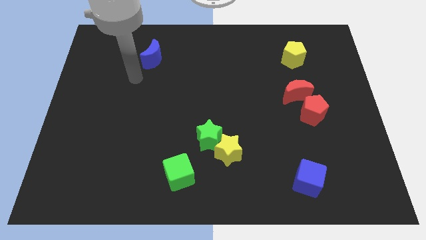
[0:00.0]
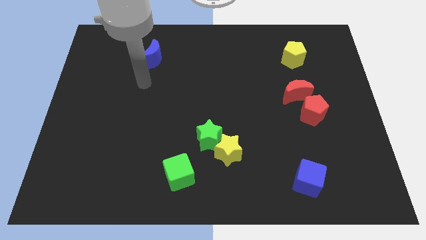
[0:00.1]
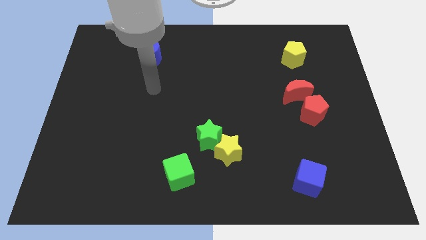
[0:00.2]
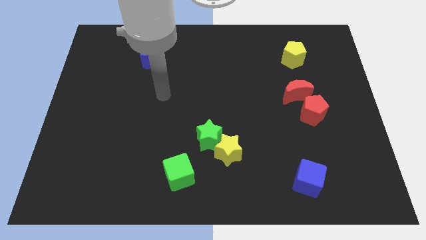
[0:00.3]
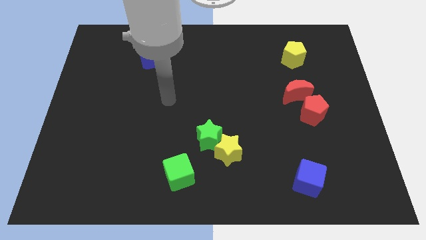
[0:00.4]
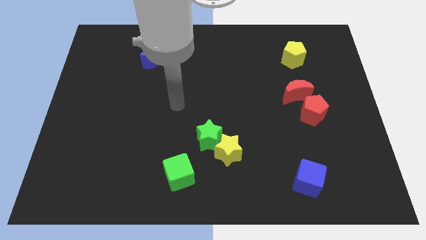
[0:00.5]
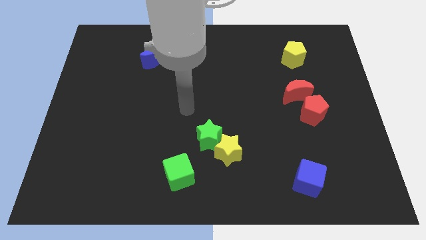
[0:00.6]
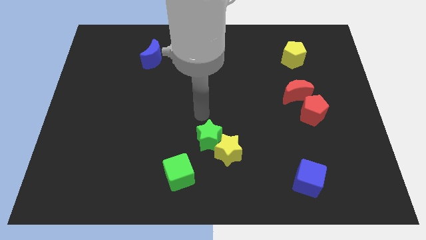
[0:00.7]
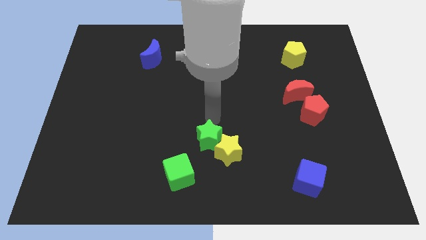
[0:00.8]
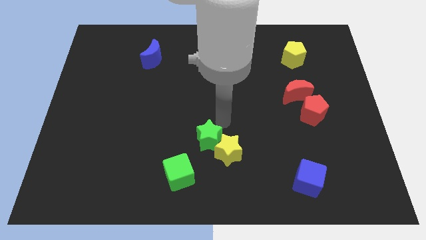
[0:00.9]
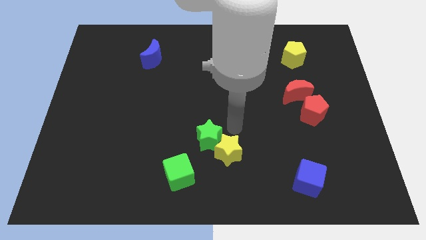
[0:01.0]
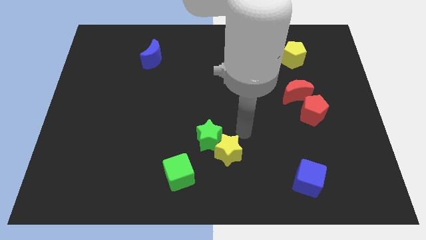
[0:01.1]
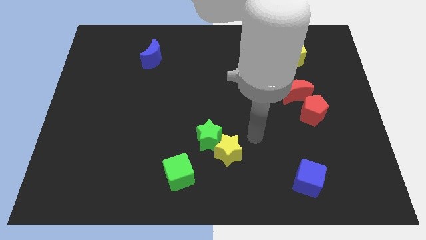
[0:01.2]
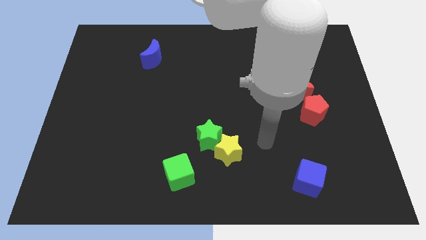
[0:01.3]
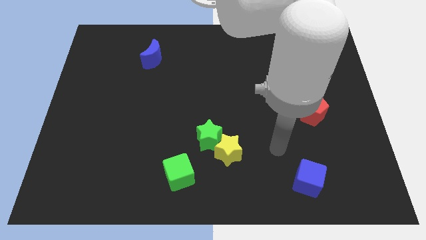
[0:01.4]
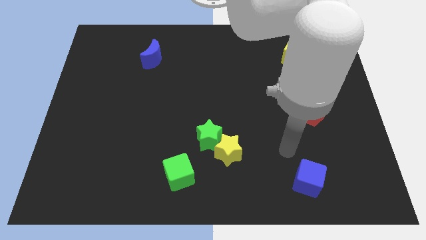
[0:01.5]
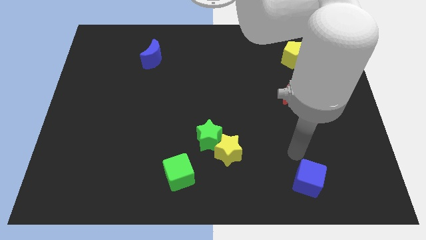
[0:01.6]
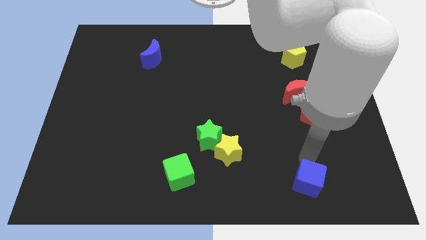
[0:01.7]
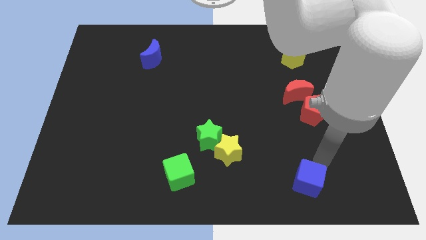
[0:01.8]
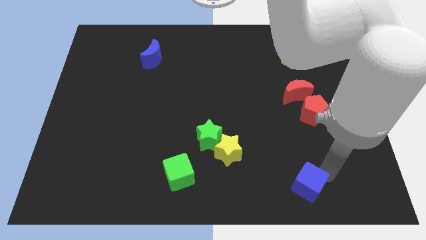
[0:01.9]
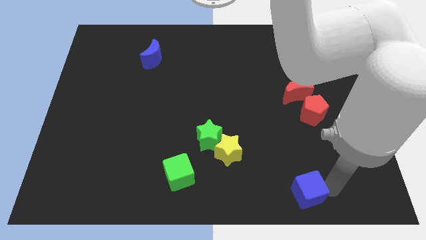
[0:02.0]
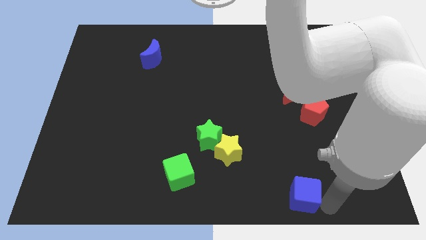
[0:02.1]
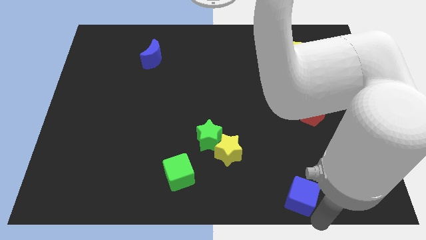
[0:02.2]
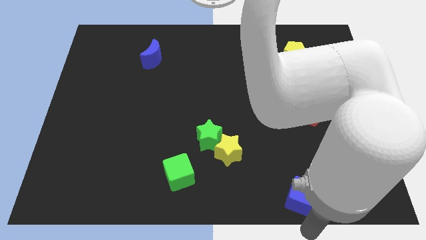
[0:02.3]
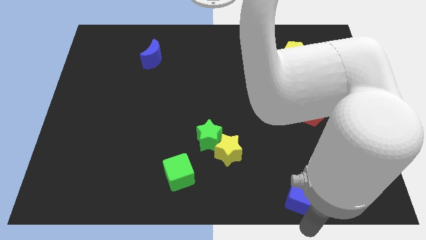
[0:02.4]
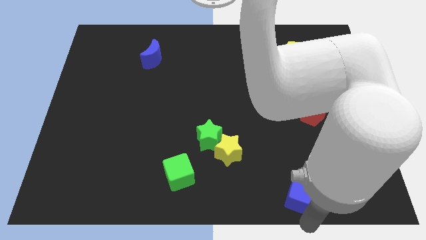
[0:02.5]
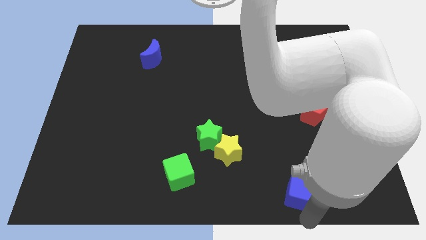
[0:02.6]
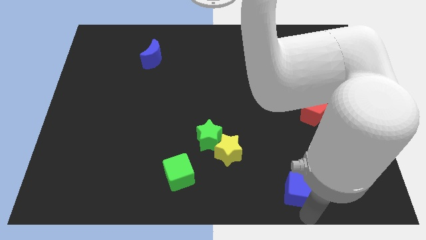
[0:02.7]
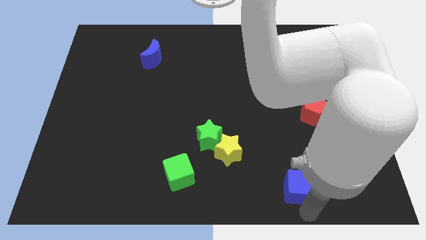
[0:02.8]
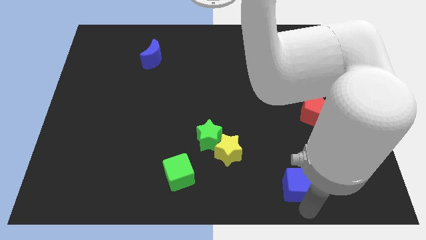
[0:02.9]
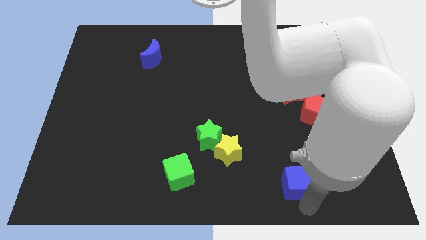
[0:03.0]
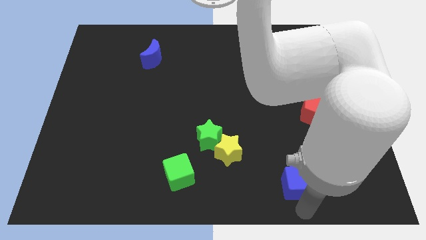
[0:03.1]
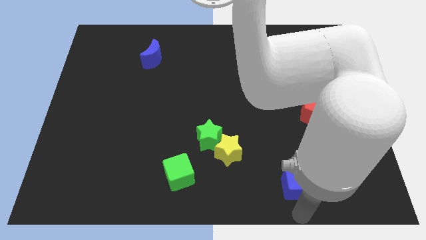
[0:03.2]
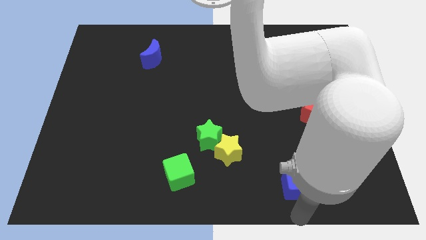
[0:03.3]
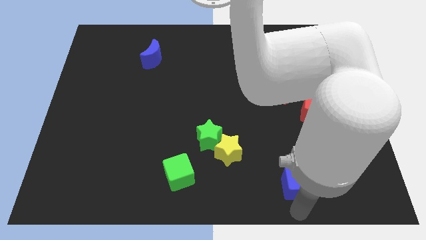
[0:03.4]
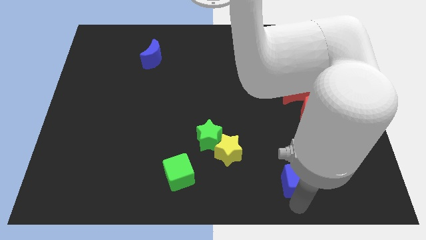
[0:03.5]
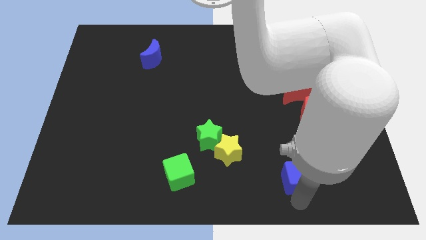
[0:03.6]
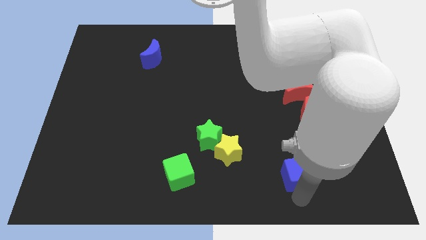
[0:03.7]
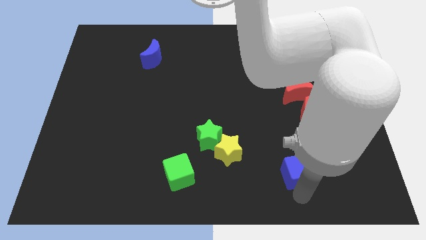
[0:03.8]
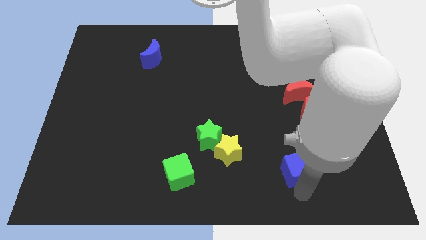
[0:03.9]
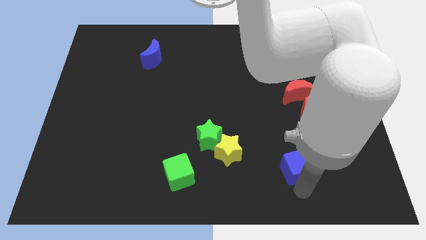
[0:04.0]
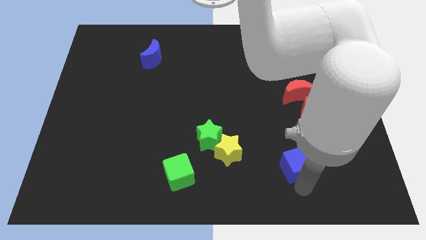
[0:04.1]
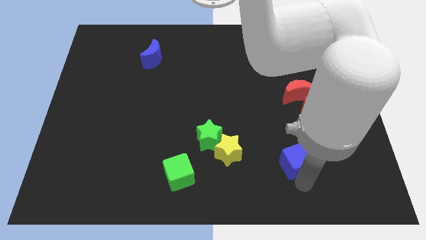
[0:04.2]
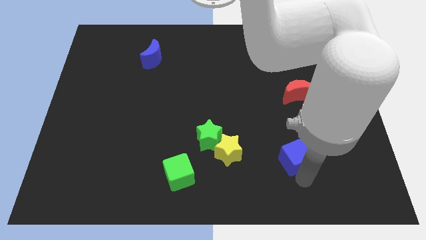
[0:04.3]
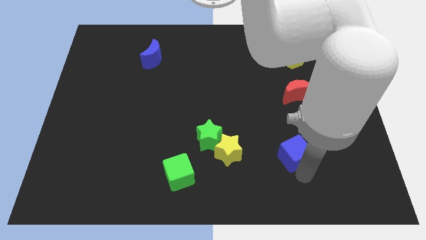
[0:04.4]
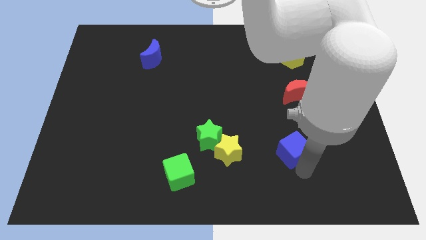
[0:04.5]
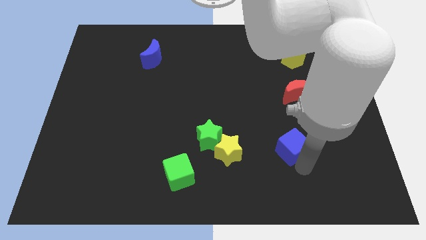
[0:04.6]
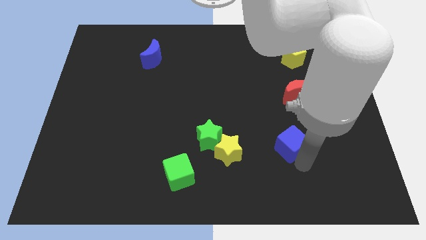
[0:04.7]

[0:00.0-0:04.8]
push the blue cube diagonally upwards and left somewhat

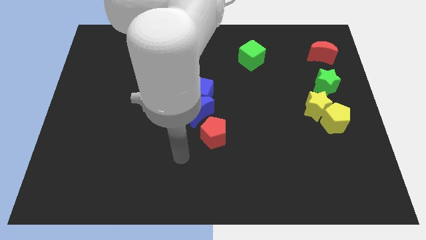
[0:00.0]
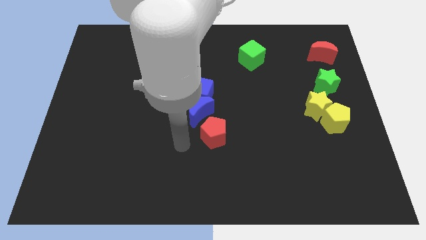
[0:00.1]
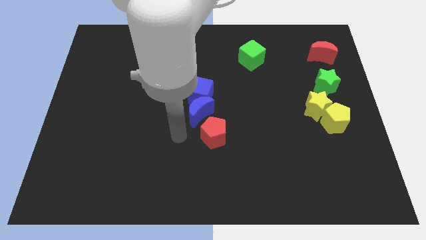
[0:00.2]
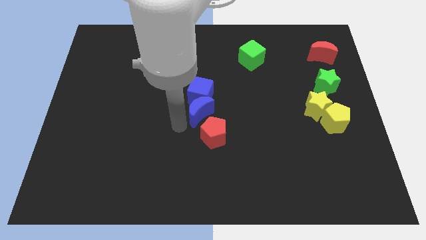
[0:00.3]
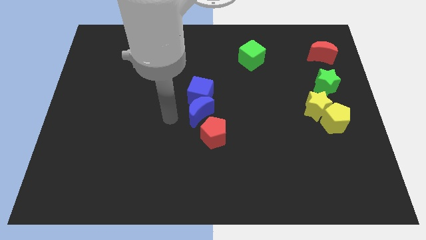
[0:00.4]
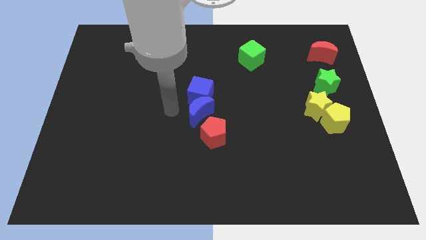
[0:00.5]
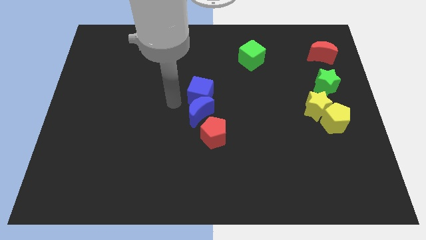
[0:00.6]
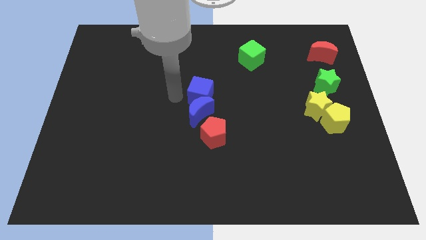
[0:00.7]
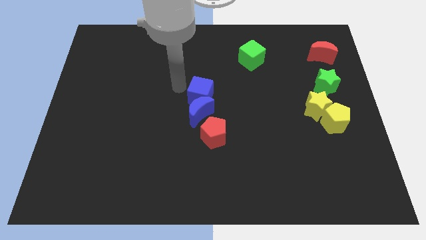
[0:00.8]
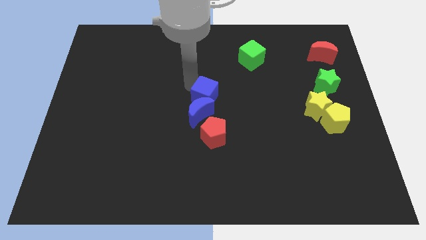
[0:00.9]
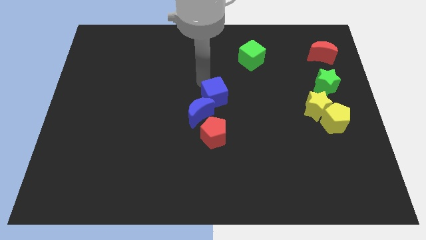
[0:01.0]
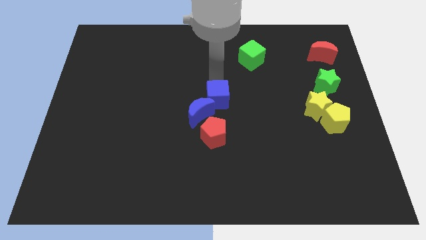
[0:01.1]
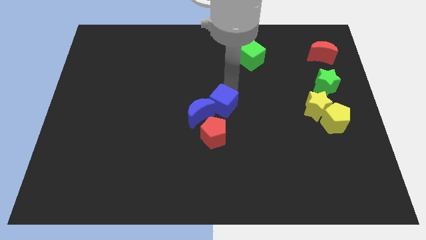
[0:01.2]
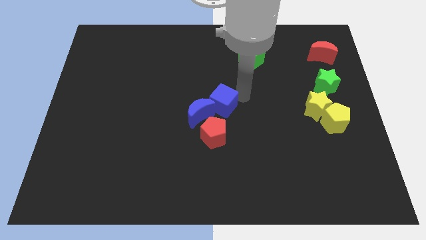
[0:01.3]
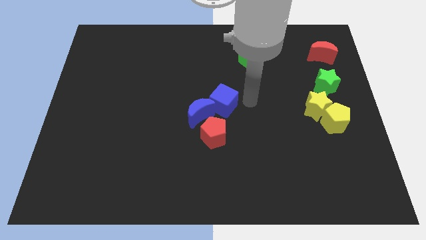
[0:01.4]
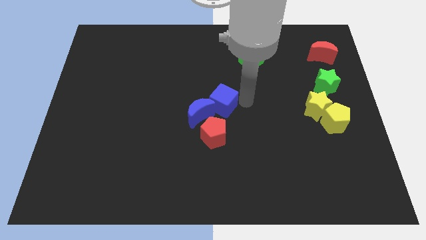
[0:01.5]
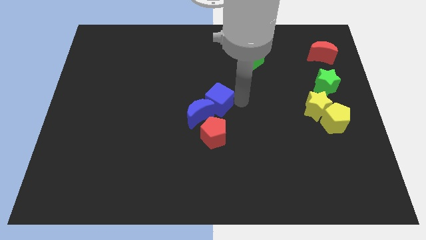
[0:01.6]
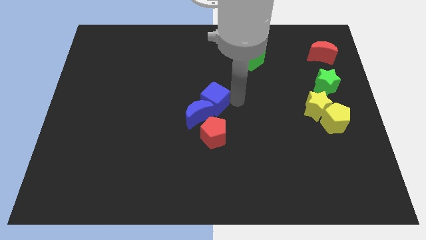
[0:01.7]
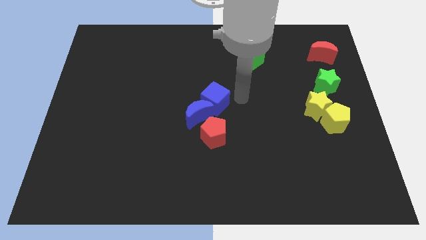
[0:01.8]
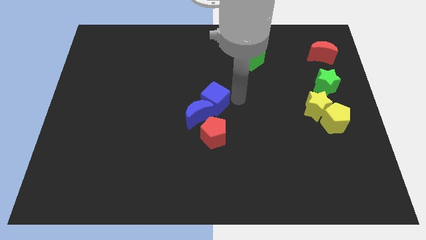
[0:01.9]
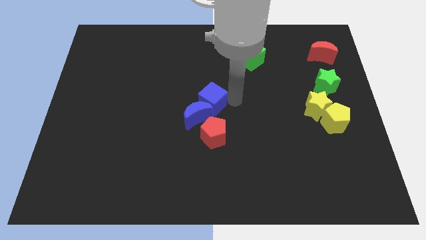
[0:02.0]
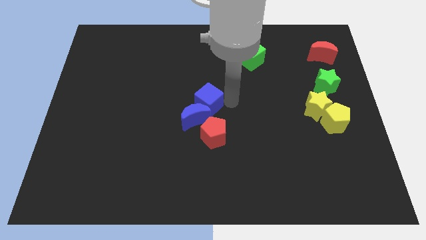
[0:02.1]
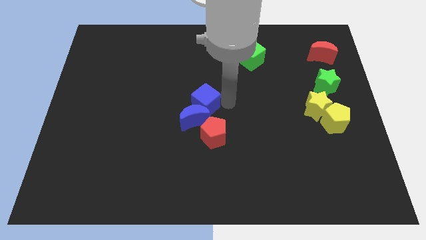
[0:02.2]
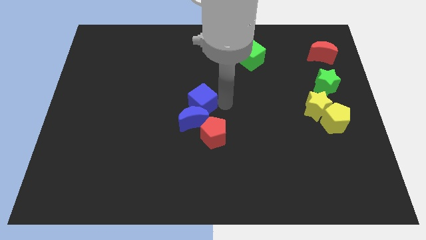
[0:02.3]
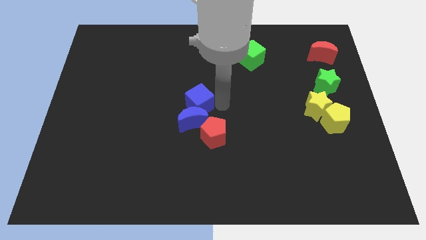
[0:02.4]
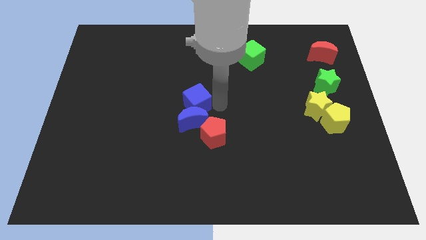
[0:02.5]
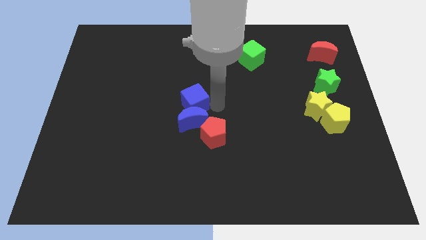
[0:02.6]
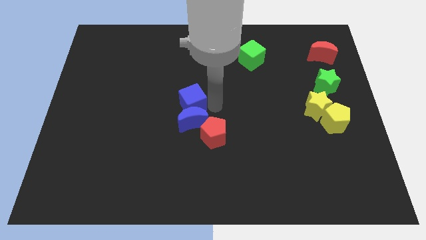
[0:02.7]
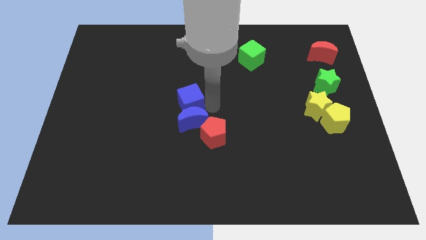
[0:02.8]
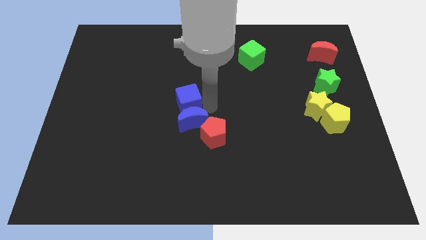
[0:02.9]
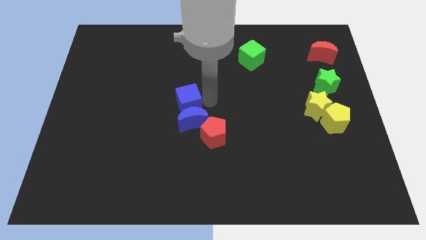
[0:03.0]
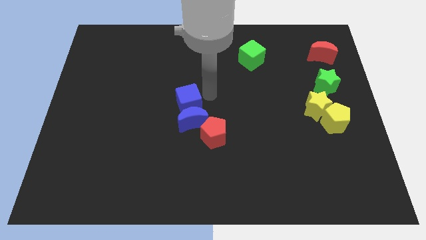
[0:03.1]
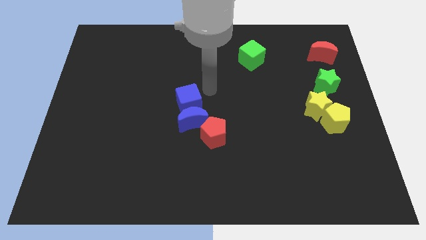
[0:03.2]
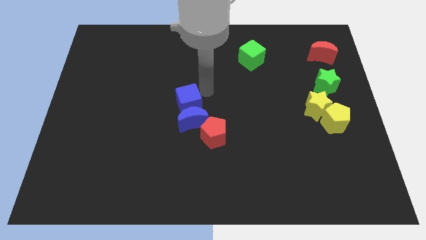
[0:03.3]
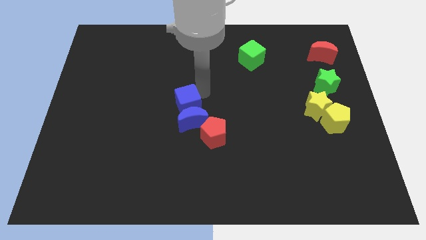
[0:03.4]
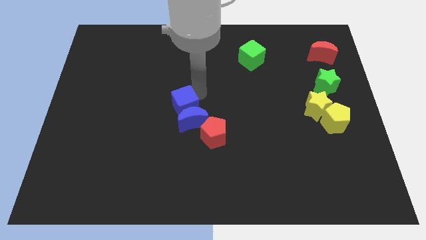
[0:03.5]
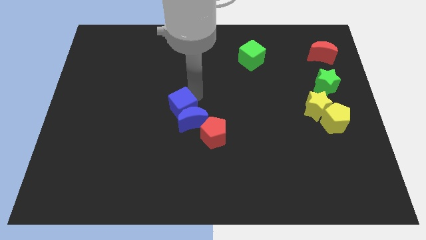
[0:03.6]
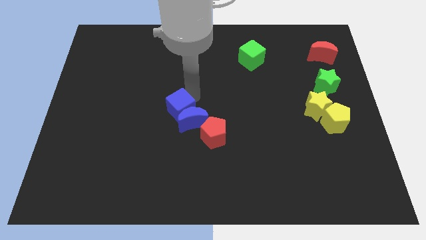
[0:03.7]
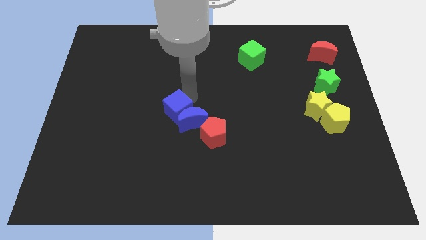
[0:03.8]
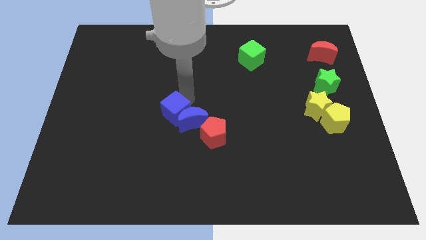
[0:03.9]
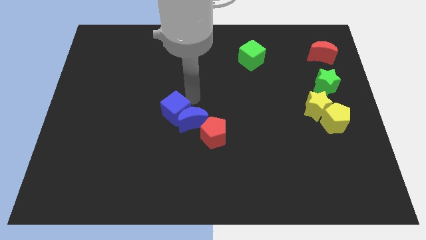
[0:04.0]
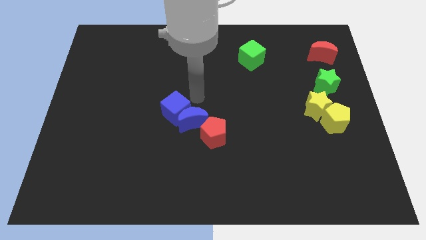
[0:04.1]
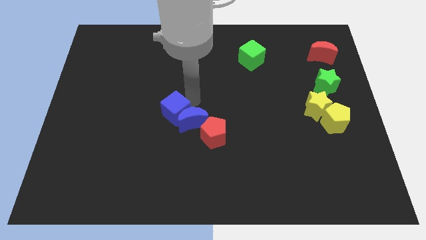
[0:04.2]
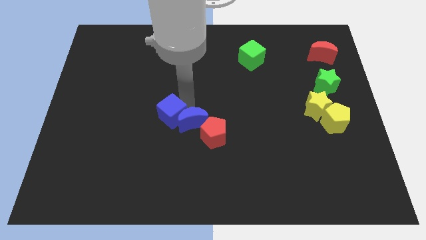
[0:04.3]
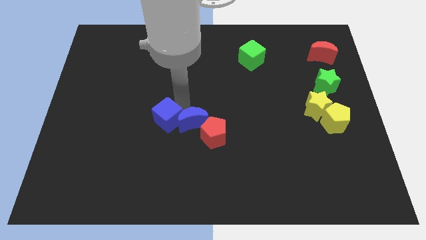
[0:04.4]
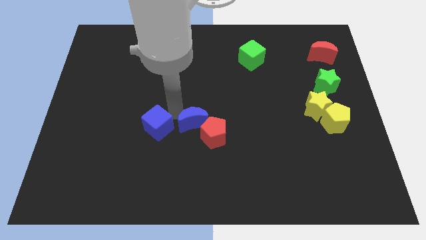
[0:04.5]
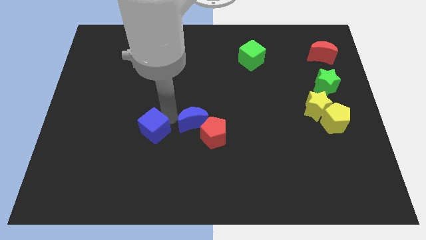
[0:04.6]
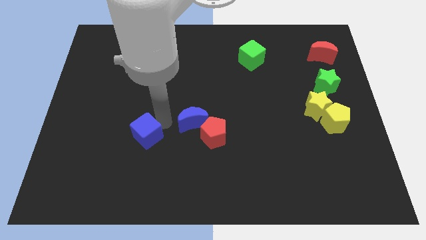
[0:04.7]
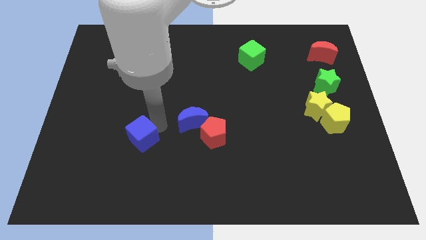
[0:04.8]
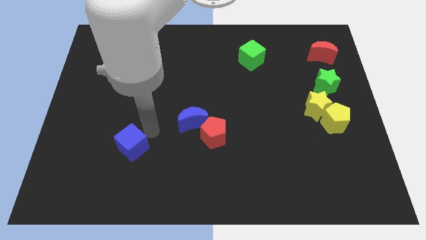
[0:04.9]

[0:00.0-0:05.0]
push the blue cube downwards and to the left diagonally
